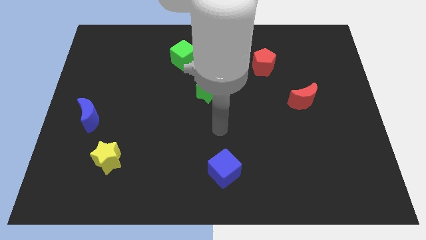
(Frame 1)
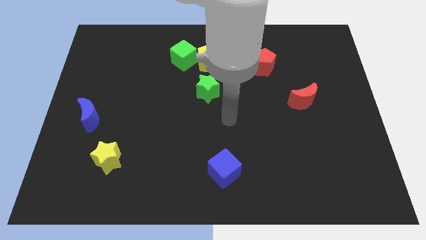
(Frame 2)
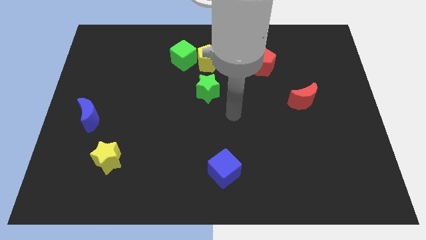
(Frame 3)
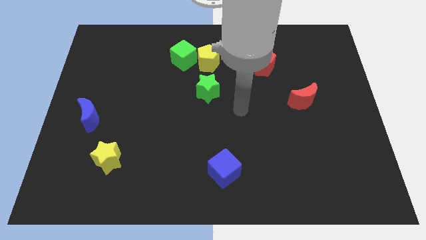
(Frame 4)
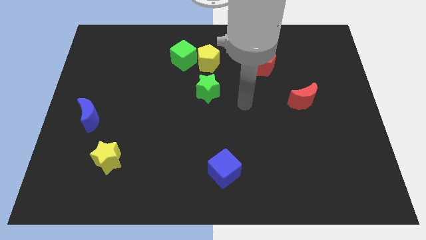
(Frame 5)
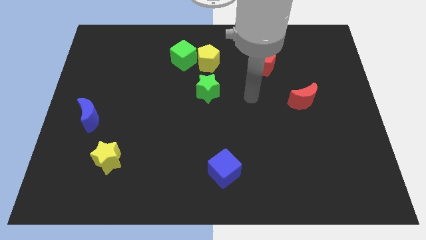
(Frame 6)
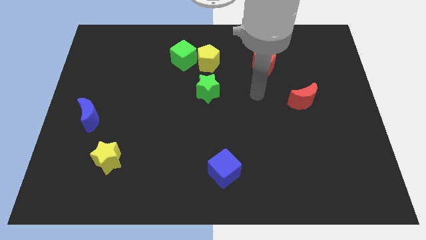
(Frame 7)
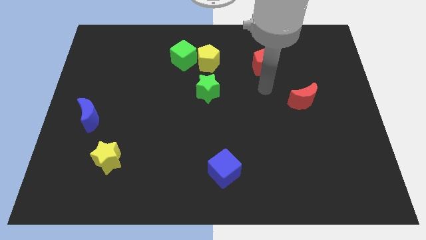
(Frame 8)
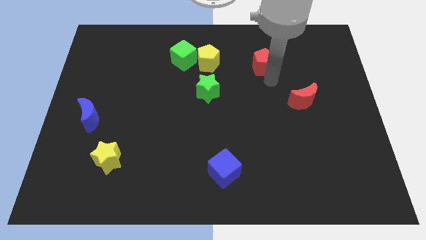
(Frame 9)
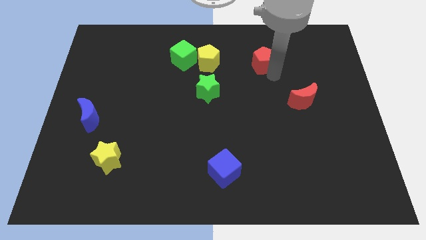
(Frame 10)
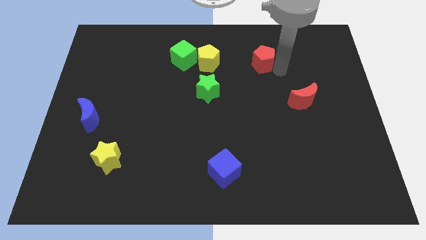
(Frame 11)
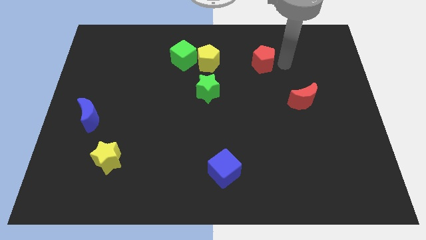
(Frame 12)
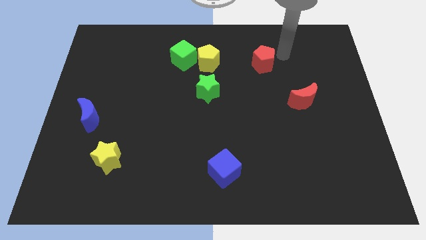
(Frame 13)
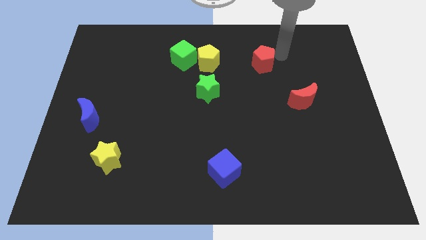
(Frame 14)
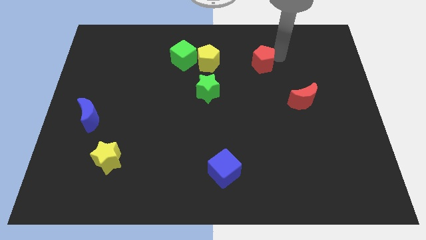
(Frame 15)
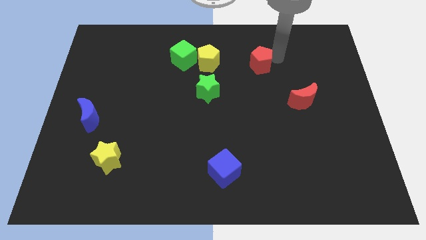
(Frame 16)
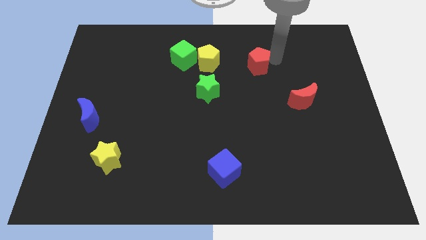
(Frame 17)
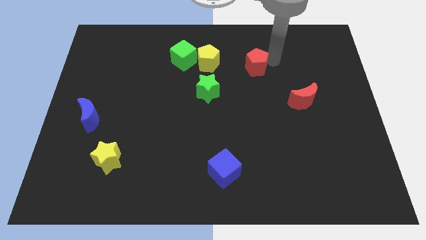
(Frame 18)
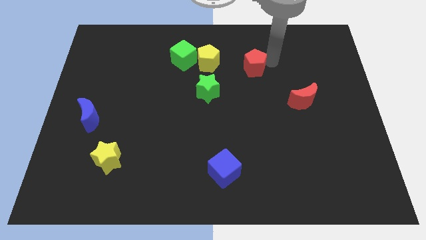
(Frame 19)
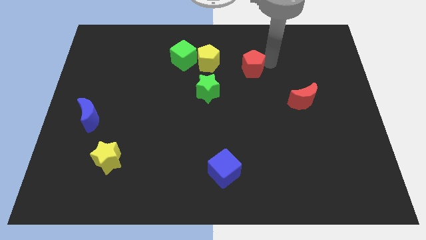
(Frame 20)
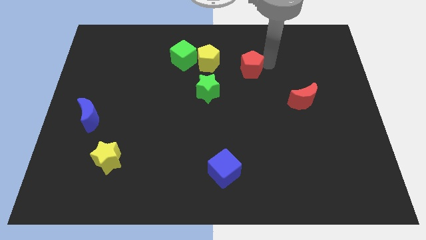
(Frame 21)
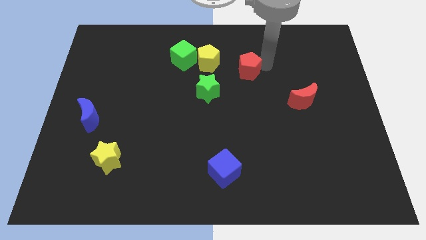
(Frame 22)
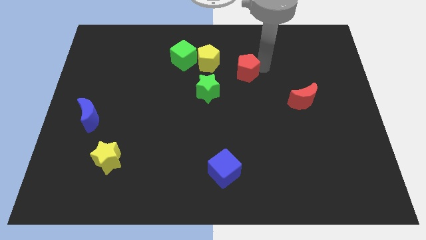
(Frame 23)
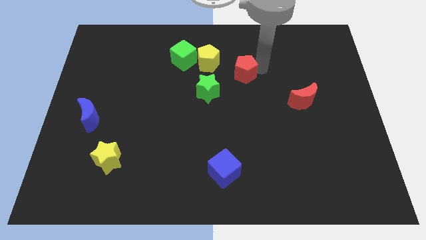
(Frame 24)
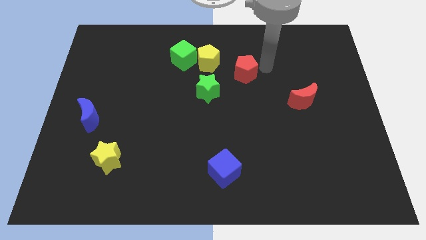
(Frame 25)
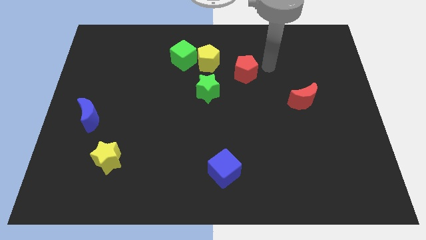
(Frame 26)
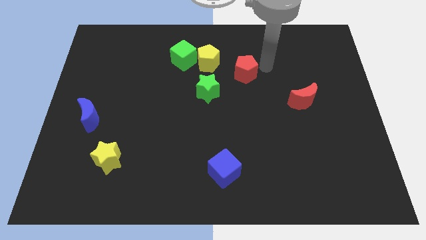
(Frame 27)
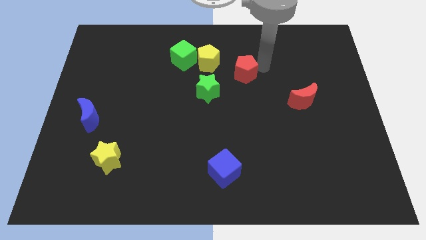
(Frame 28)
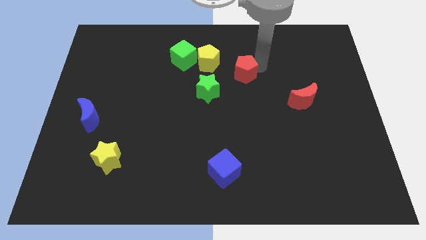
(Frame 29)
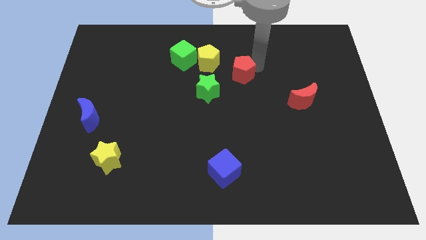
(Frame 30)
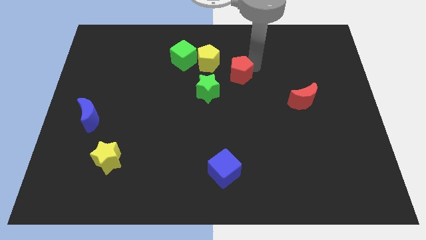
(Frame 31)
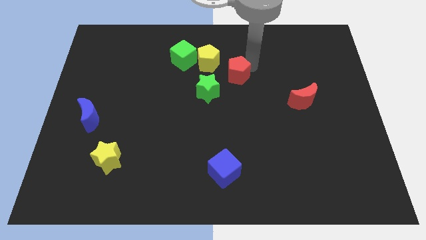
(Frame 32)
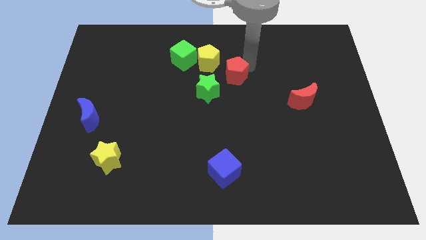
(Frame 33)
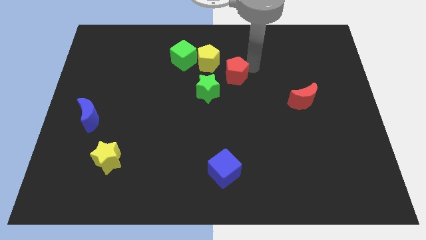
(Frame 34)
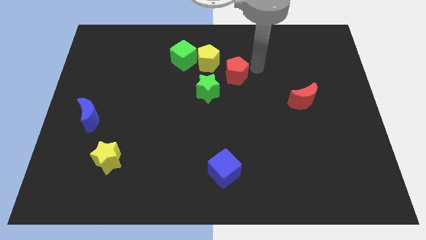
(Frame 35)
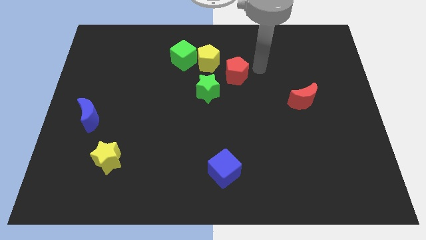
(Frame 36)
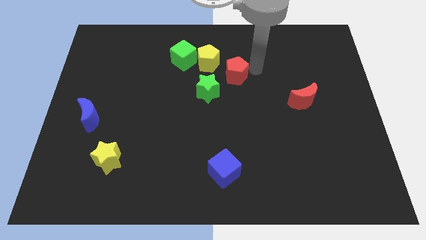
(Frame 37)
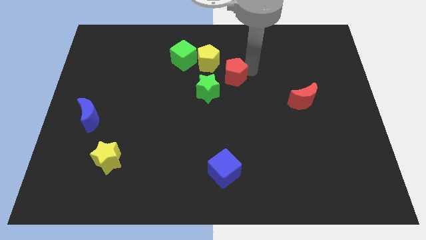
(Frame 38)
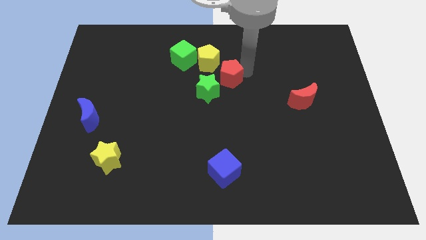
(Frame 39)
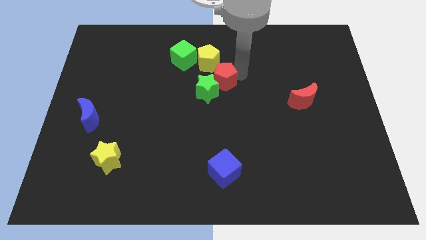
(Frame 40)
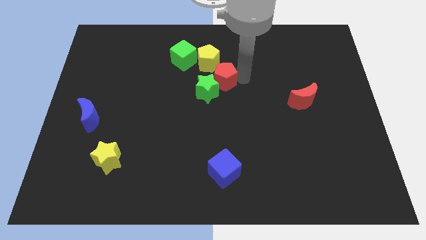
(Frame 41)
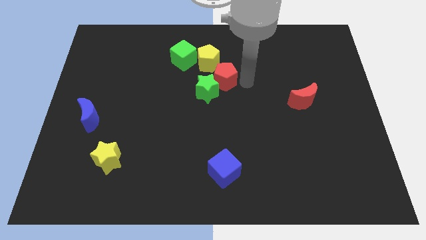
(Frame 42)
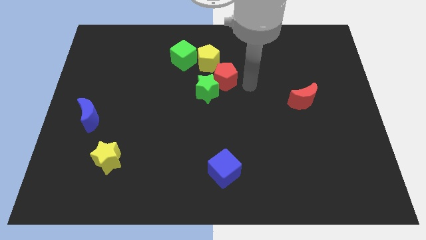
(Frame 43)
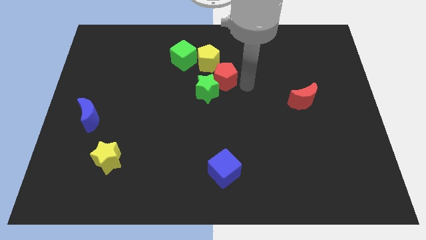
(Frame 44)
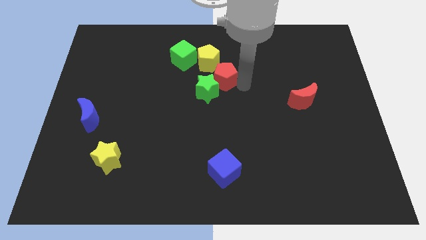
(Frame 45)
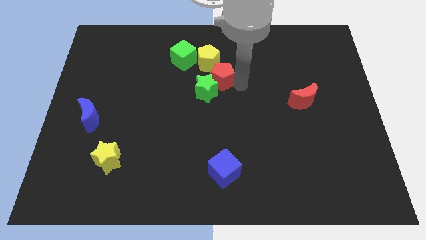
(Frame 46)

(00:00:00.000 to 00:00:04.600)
put the red pentagon to the bottom right side of the green cube

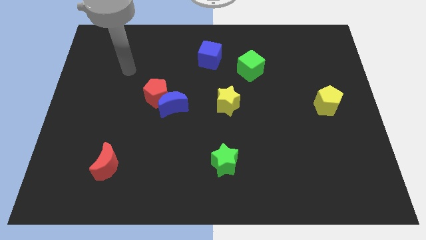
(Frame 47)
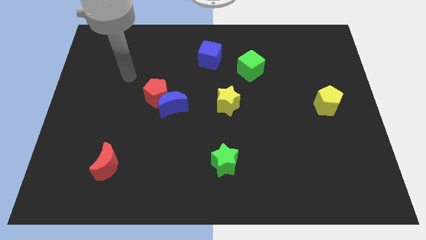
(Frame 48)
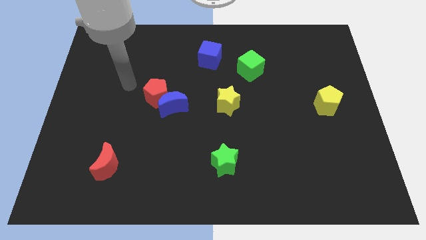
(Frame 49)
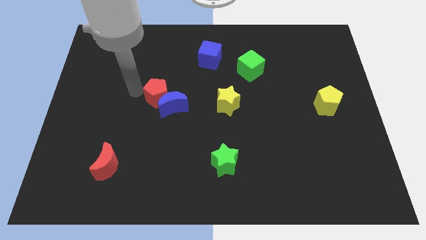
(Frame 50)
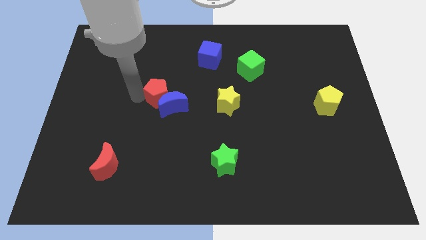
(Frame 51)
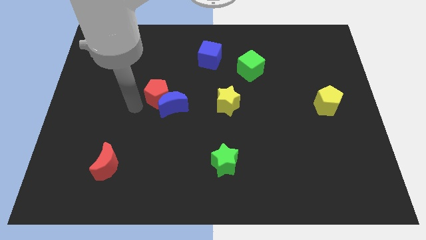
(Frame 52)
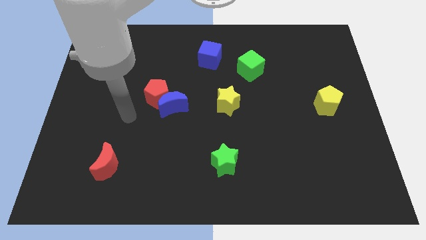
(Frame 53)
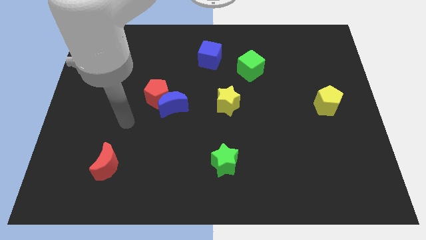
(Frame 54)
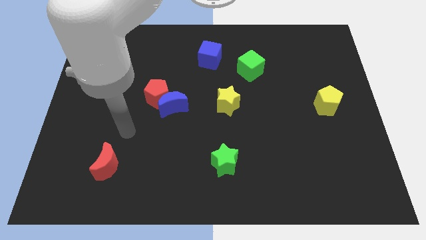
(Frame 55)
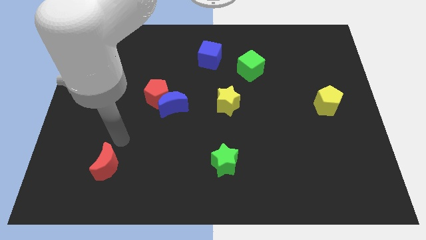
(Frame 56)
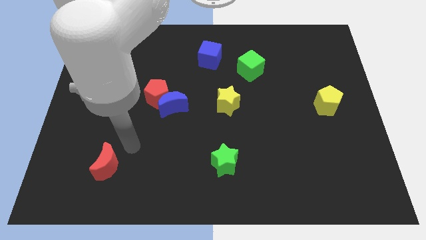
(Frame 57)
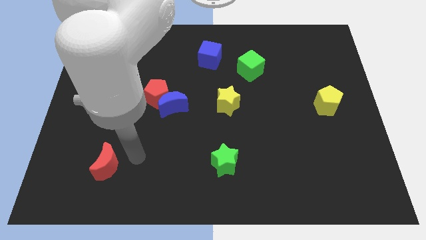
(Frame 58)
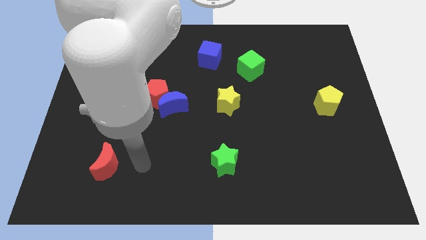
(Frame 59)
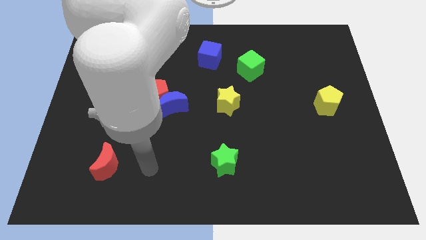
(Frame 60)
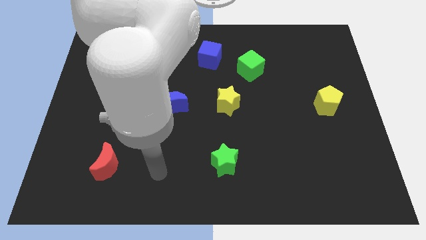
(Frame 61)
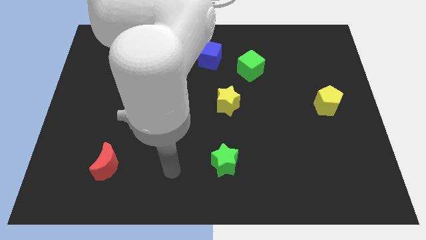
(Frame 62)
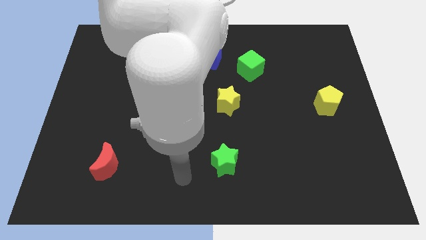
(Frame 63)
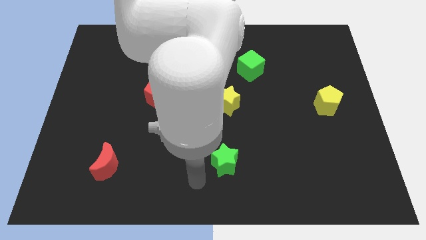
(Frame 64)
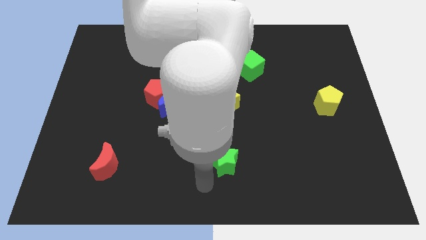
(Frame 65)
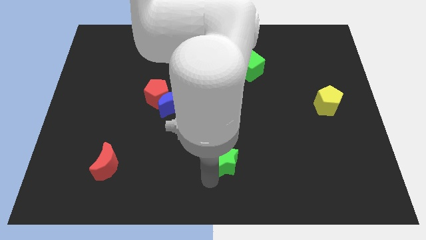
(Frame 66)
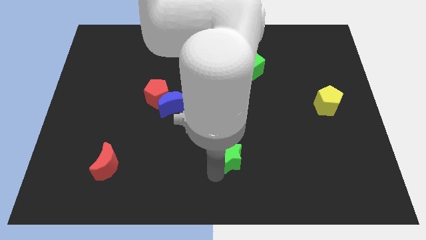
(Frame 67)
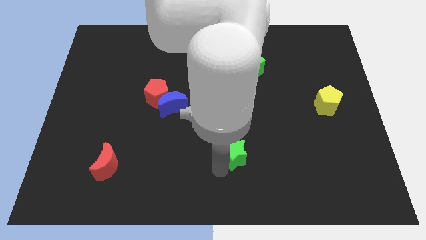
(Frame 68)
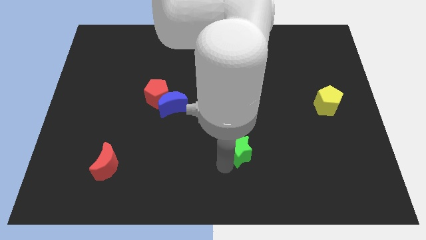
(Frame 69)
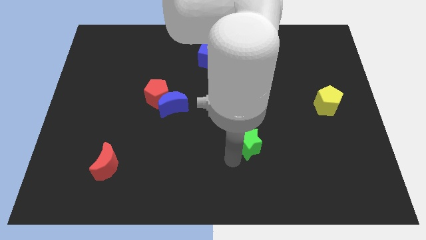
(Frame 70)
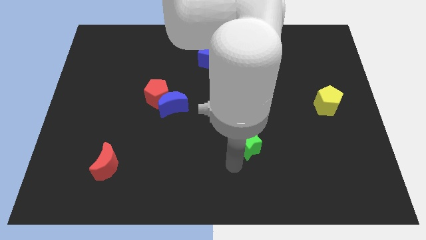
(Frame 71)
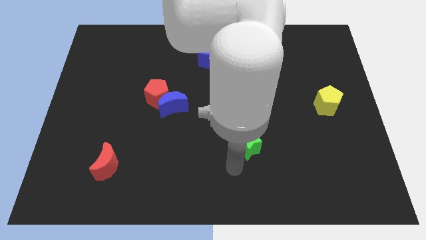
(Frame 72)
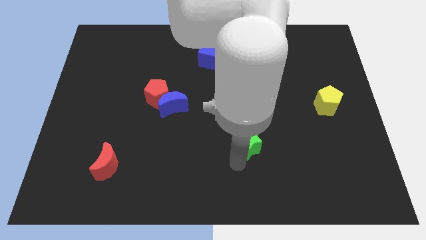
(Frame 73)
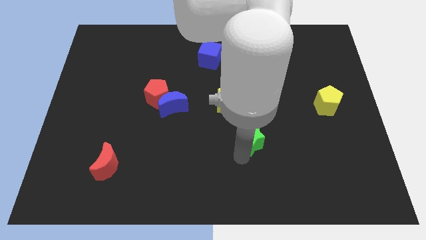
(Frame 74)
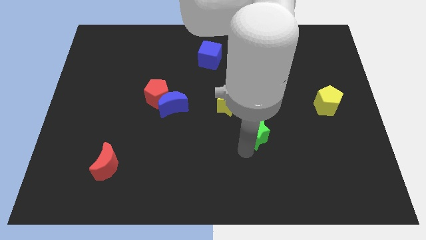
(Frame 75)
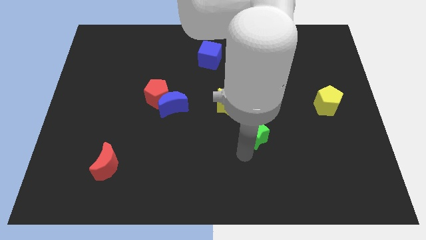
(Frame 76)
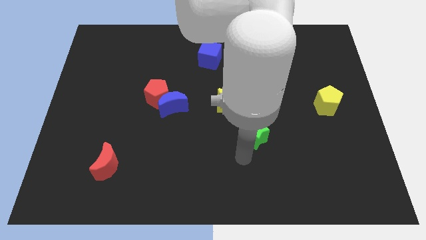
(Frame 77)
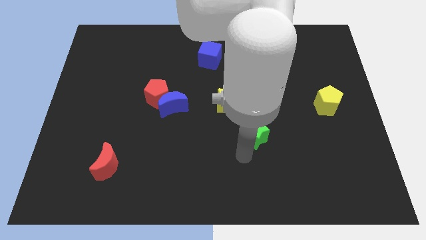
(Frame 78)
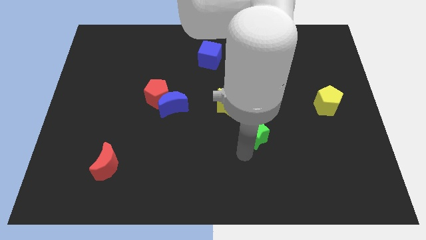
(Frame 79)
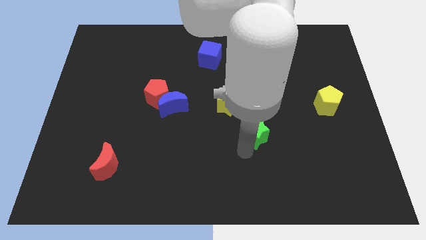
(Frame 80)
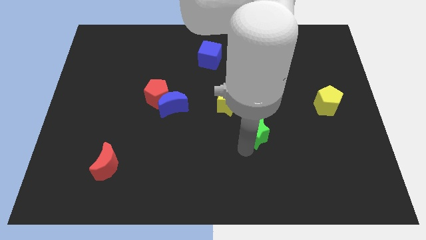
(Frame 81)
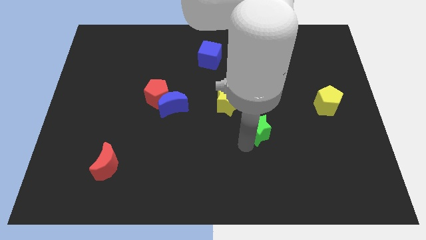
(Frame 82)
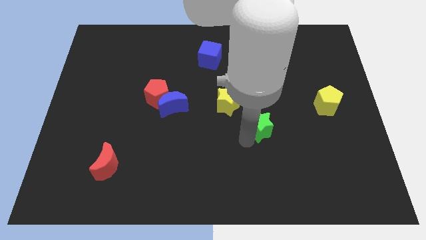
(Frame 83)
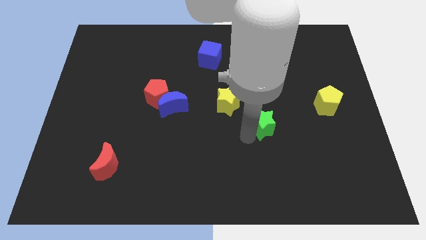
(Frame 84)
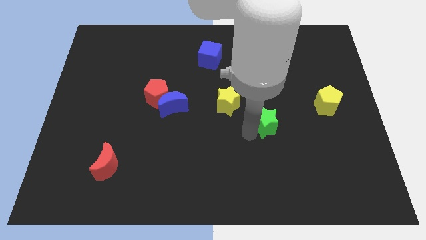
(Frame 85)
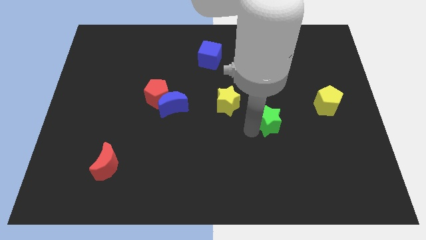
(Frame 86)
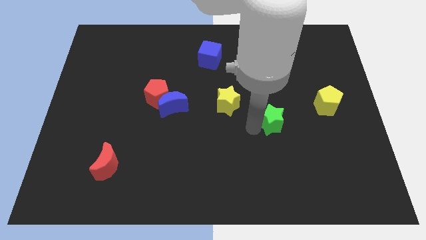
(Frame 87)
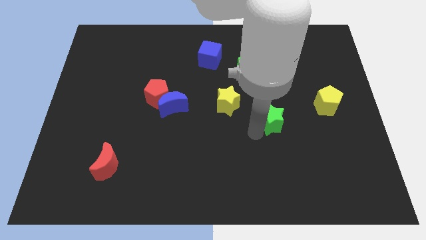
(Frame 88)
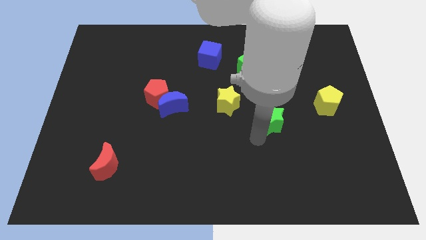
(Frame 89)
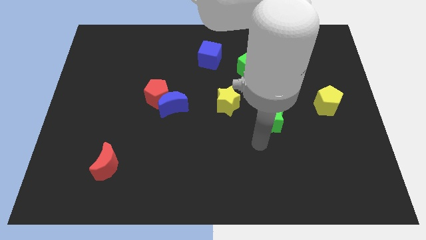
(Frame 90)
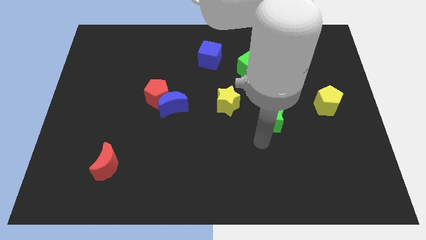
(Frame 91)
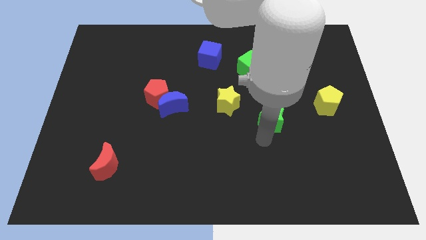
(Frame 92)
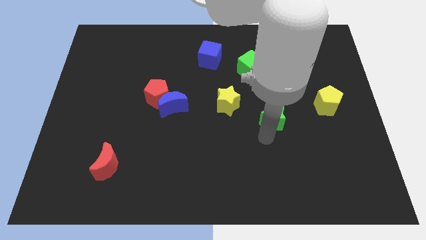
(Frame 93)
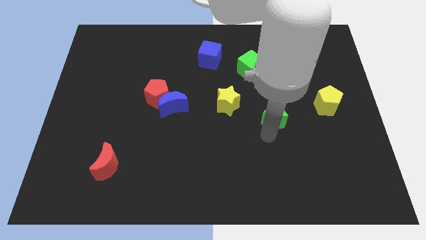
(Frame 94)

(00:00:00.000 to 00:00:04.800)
slide the green star just left of the yellow pentagon
